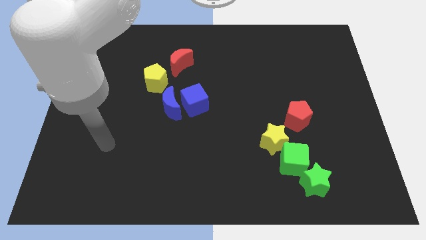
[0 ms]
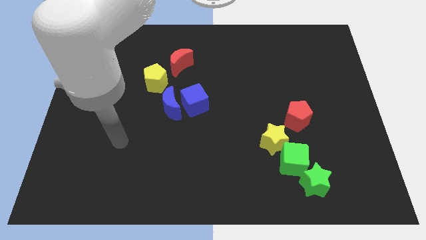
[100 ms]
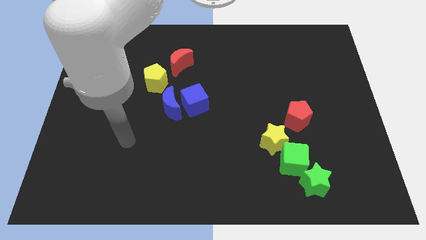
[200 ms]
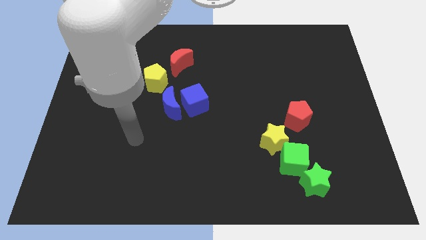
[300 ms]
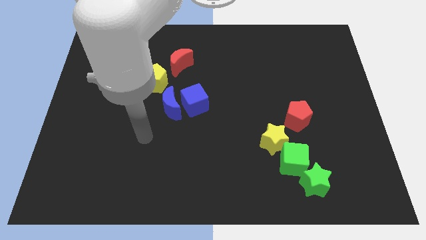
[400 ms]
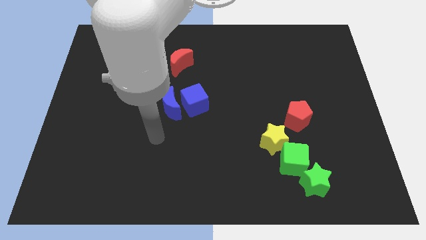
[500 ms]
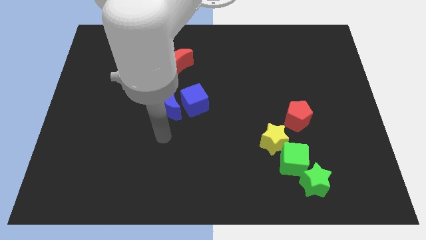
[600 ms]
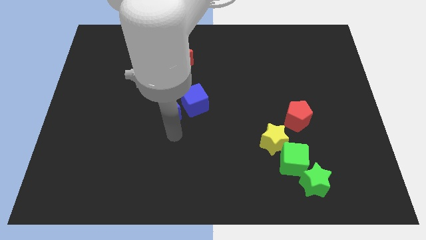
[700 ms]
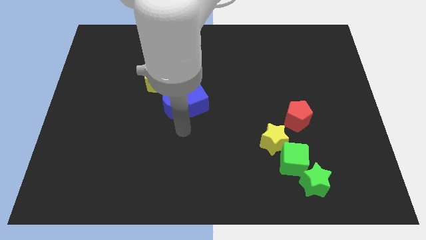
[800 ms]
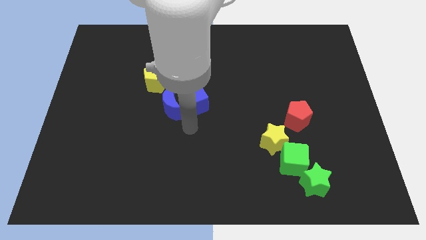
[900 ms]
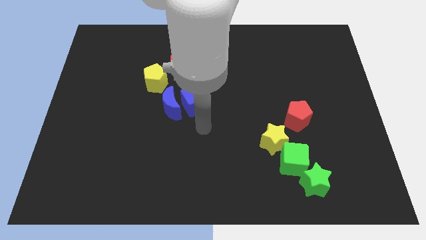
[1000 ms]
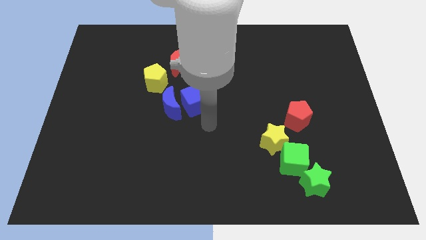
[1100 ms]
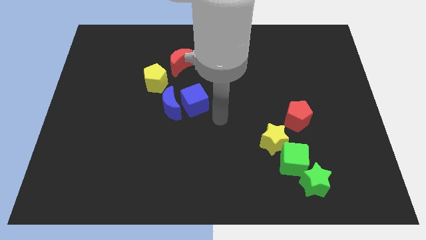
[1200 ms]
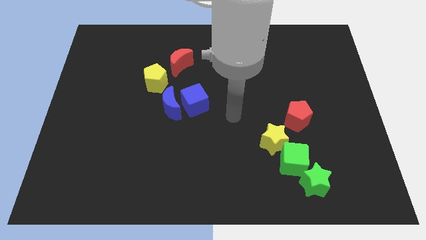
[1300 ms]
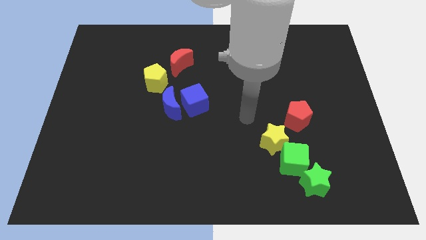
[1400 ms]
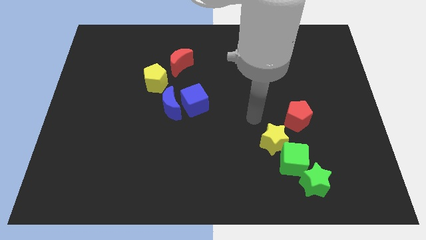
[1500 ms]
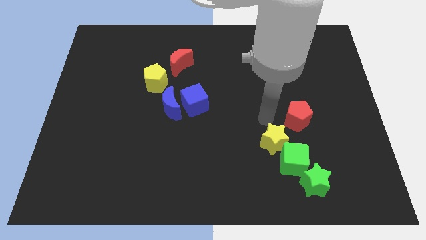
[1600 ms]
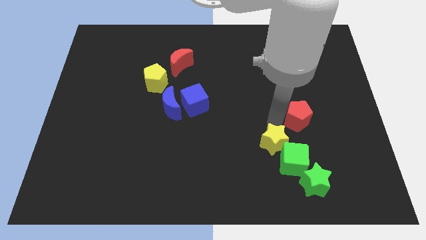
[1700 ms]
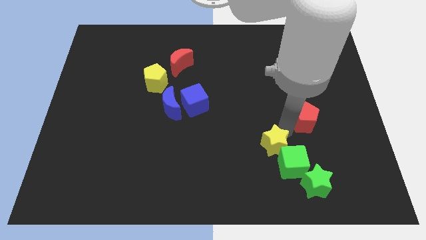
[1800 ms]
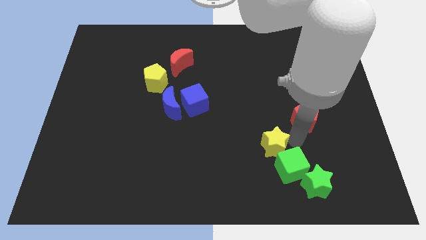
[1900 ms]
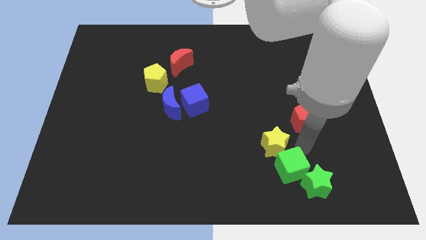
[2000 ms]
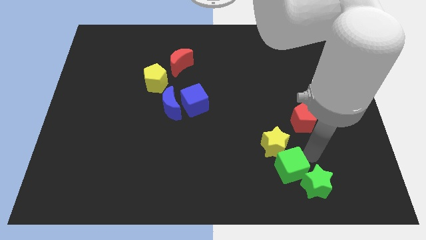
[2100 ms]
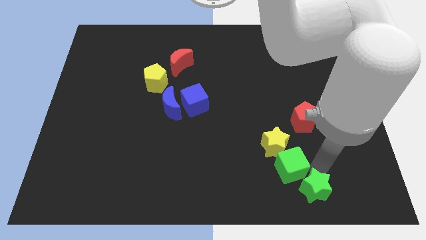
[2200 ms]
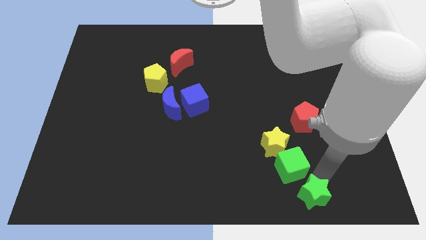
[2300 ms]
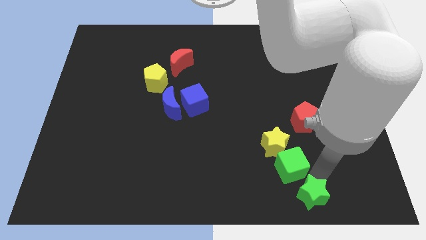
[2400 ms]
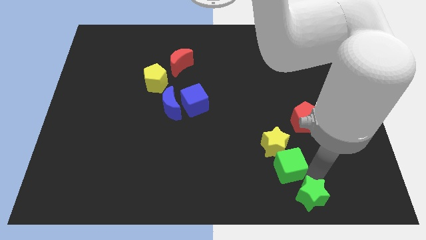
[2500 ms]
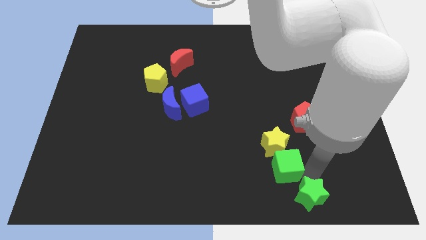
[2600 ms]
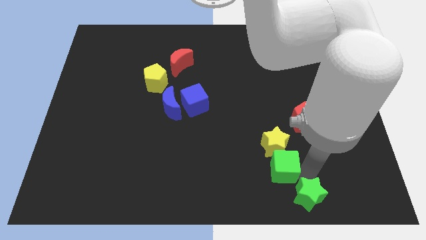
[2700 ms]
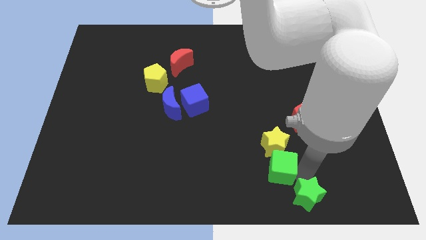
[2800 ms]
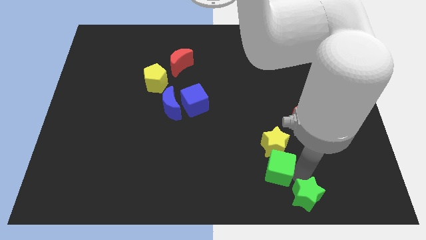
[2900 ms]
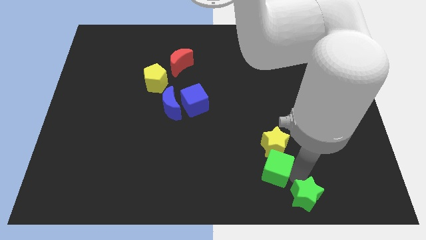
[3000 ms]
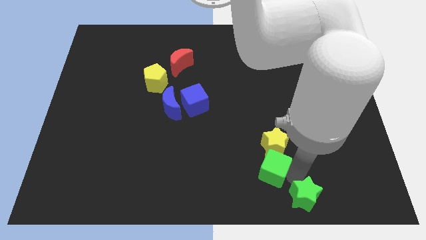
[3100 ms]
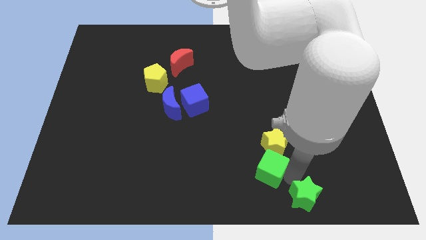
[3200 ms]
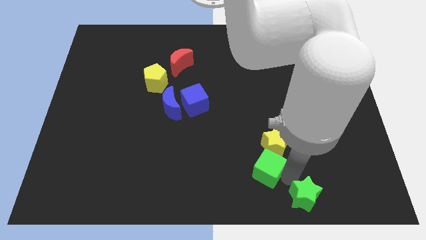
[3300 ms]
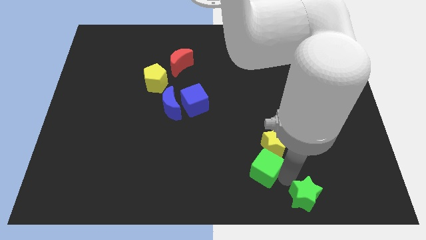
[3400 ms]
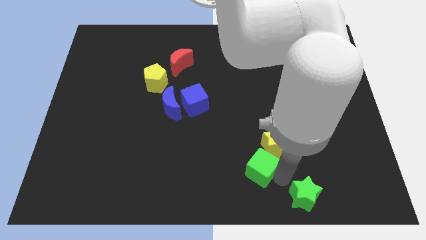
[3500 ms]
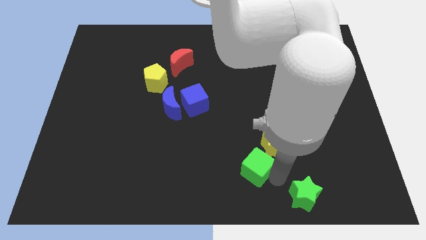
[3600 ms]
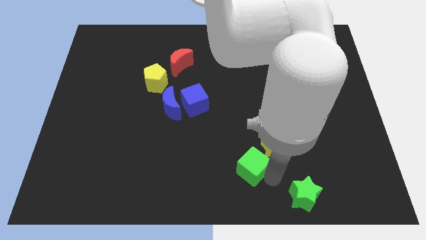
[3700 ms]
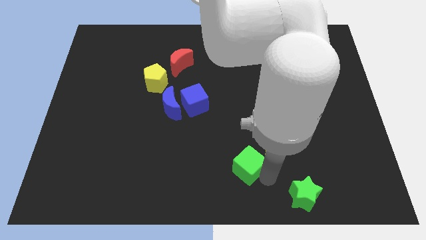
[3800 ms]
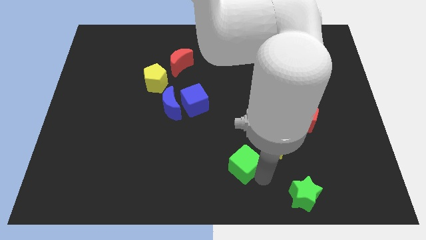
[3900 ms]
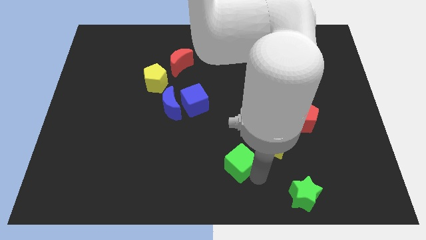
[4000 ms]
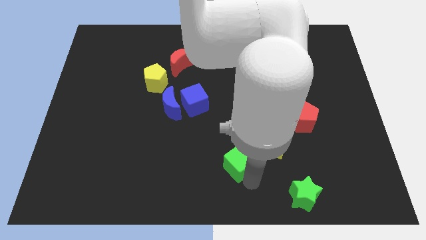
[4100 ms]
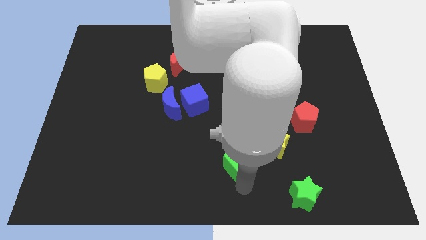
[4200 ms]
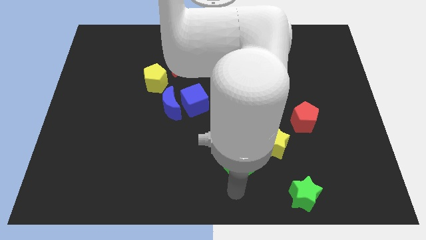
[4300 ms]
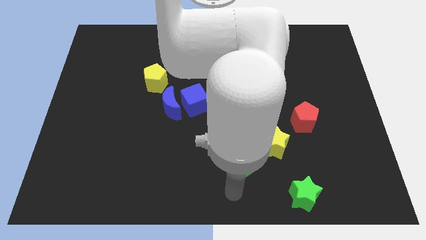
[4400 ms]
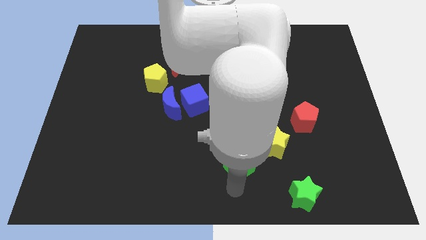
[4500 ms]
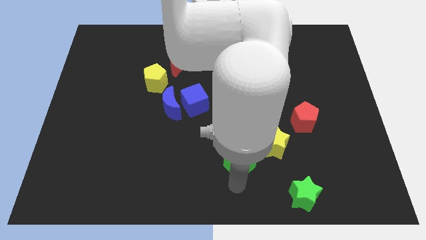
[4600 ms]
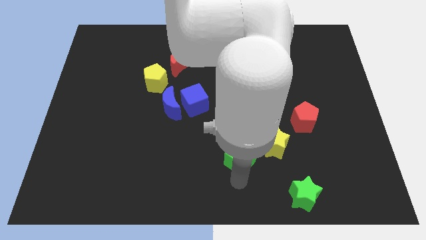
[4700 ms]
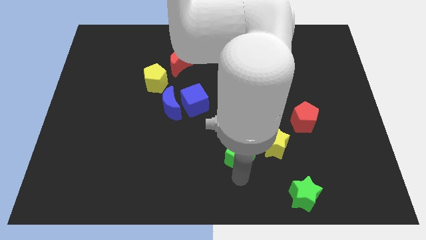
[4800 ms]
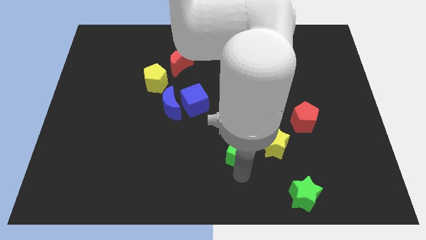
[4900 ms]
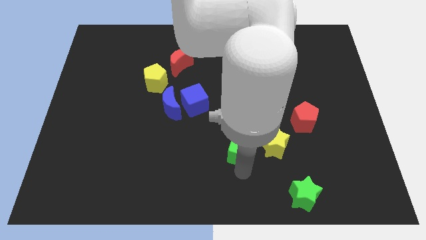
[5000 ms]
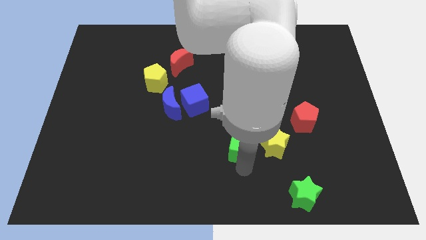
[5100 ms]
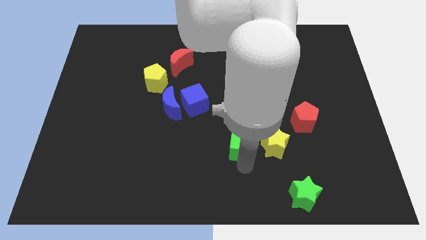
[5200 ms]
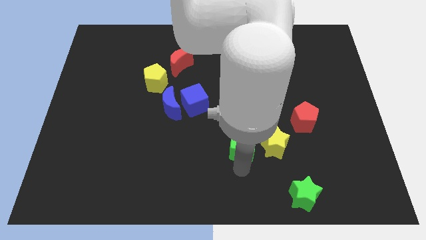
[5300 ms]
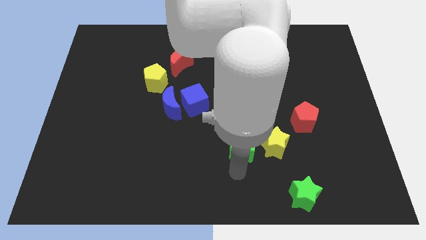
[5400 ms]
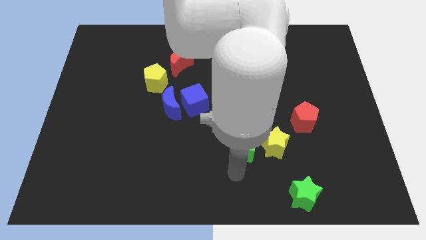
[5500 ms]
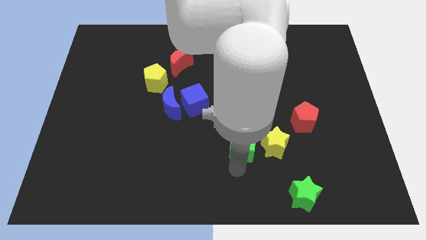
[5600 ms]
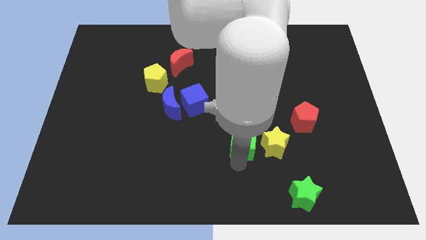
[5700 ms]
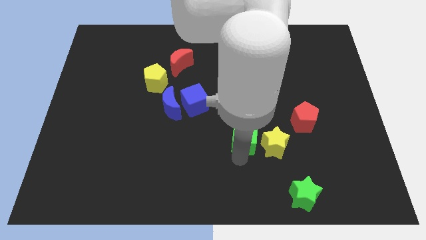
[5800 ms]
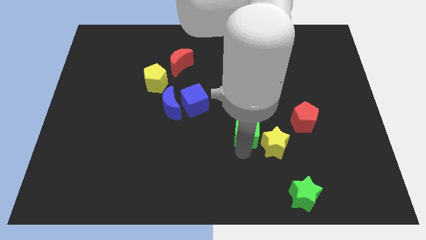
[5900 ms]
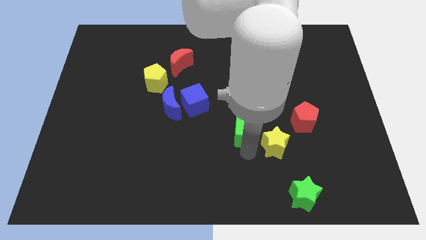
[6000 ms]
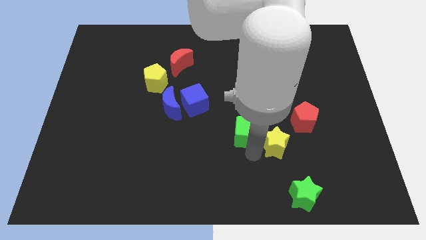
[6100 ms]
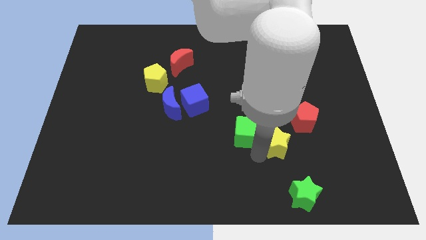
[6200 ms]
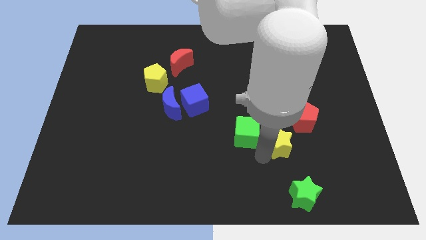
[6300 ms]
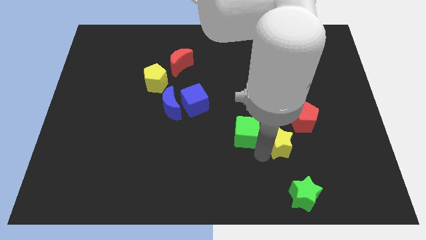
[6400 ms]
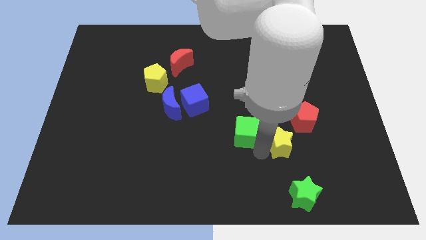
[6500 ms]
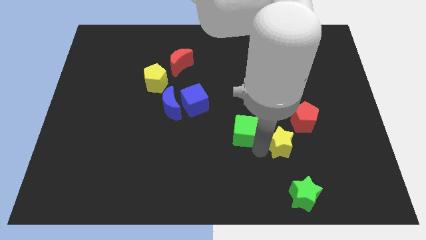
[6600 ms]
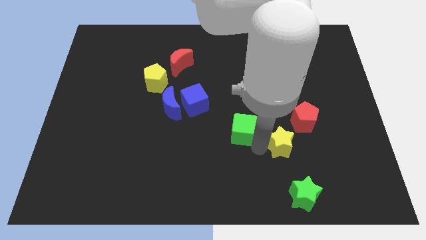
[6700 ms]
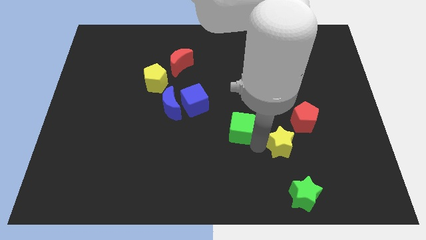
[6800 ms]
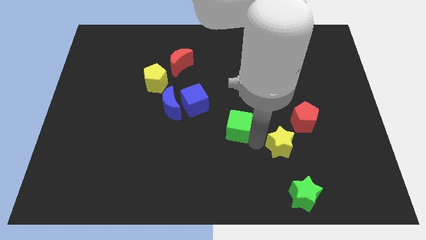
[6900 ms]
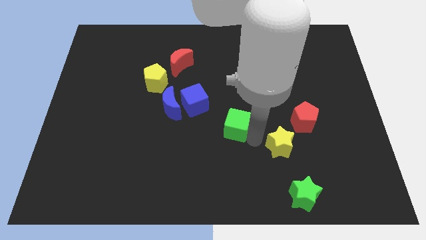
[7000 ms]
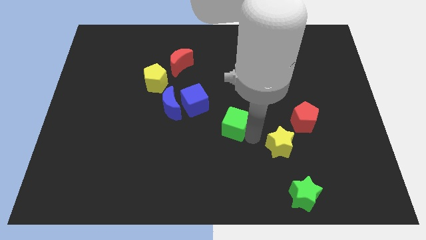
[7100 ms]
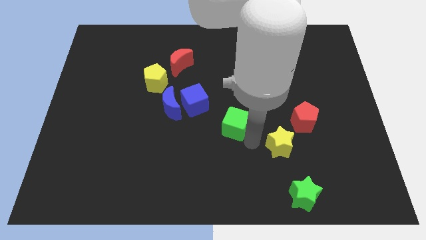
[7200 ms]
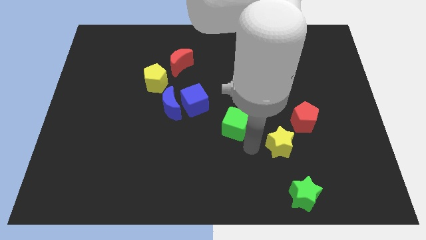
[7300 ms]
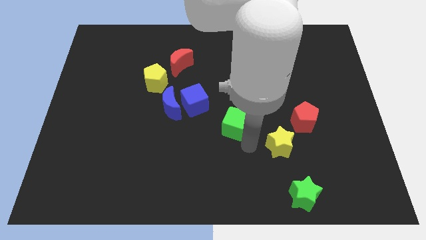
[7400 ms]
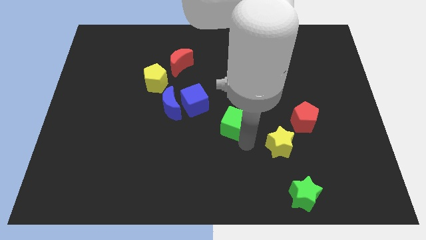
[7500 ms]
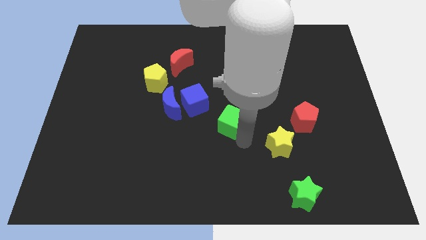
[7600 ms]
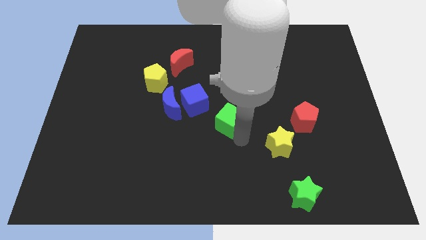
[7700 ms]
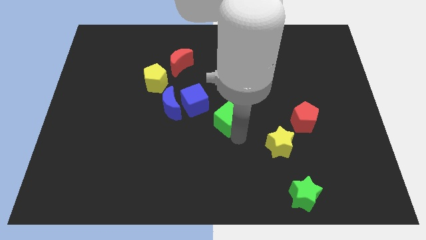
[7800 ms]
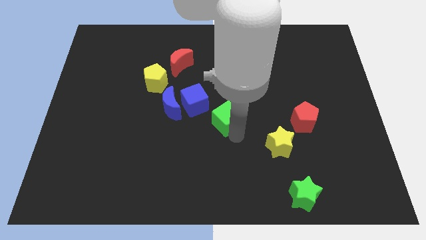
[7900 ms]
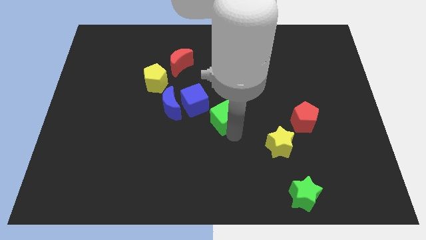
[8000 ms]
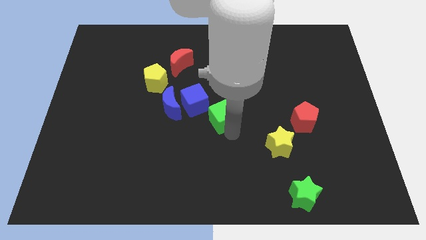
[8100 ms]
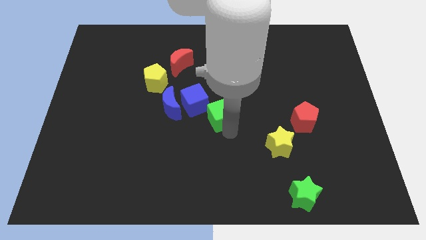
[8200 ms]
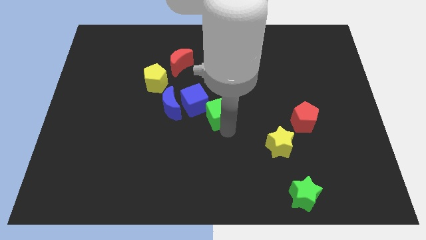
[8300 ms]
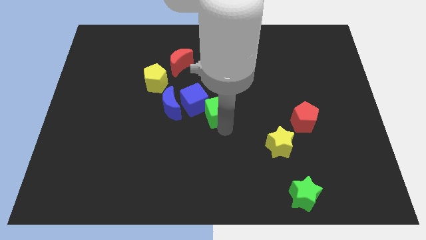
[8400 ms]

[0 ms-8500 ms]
slide the green cube up and left
